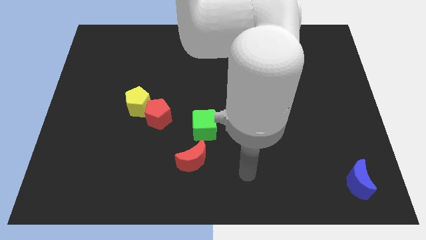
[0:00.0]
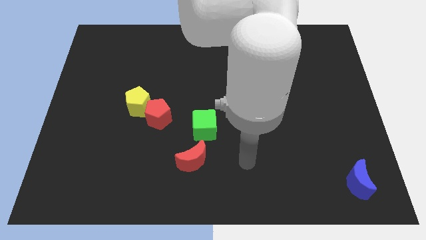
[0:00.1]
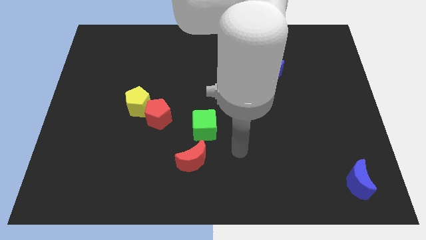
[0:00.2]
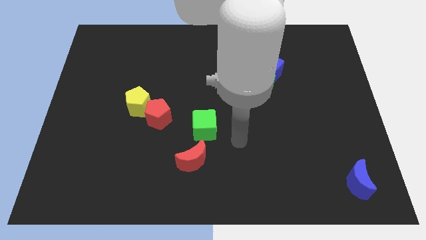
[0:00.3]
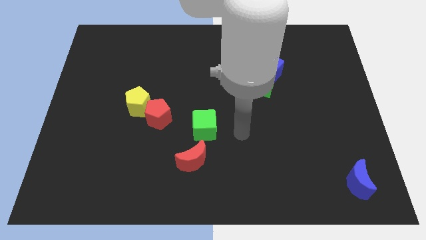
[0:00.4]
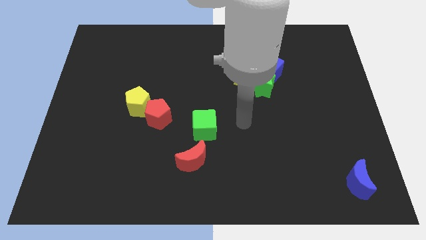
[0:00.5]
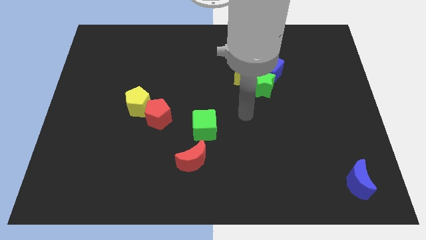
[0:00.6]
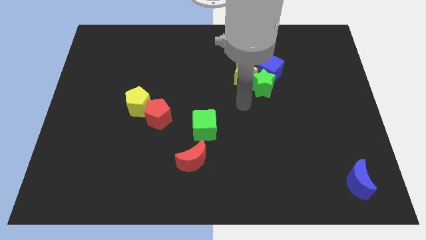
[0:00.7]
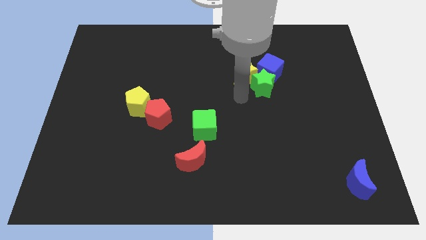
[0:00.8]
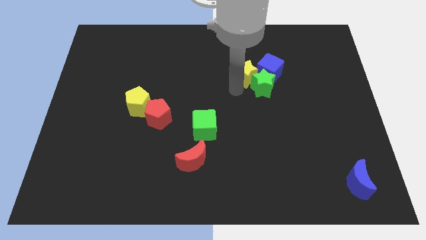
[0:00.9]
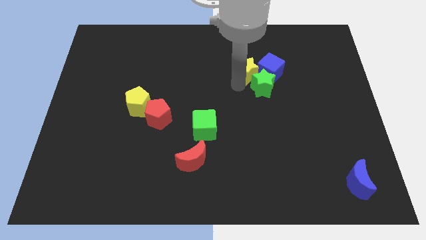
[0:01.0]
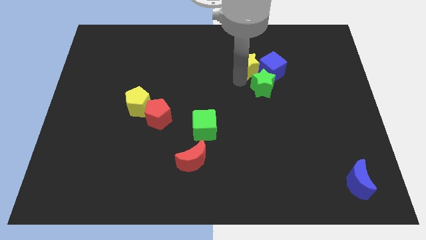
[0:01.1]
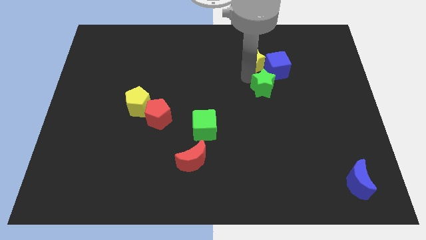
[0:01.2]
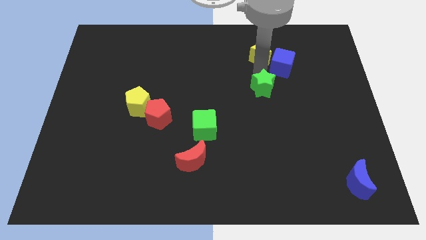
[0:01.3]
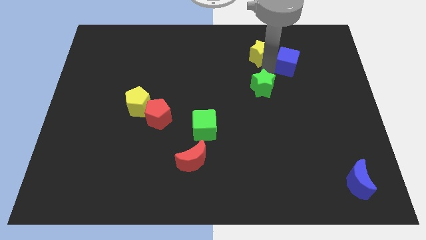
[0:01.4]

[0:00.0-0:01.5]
move the green star away from the yellow star and blue cube

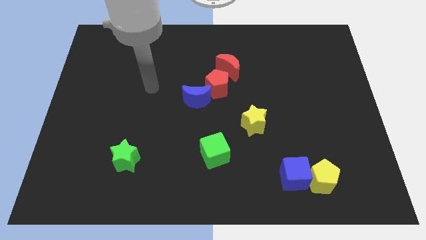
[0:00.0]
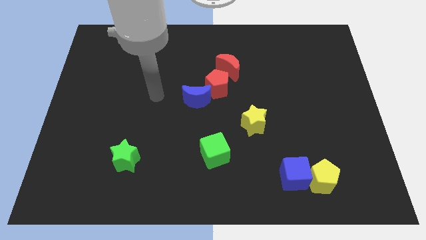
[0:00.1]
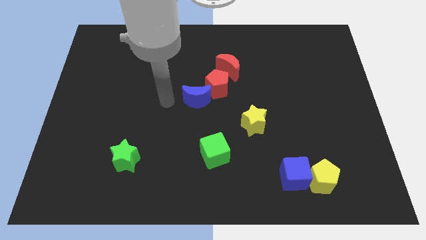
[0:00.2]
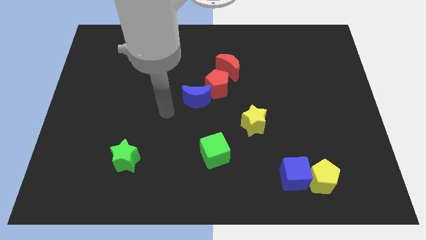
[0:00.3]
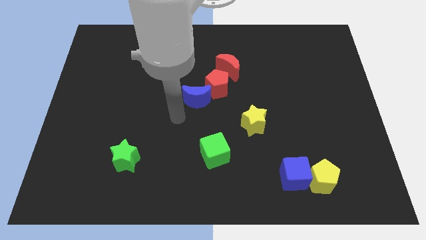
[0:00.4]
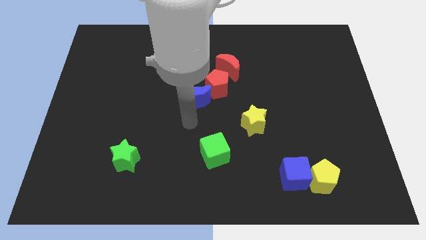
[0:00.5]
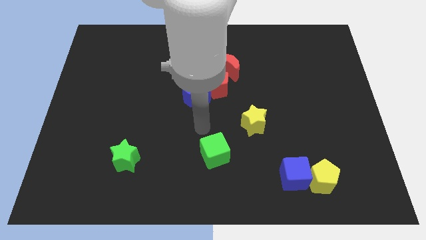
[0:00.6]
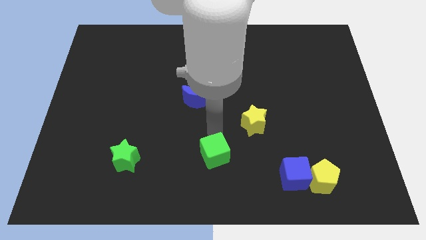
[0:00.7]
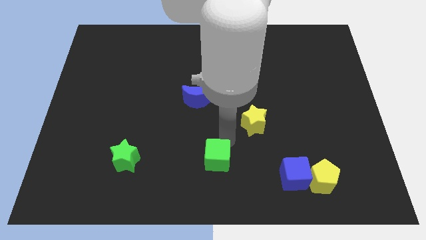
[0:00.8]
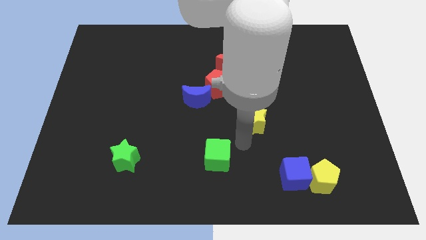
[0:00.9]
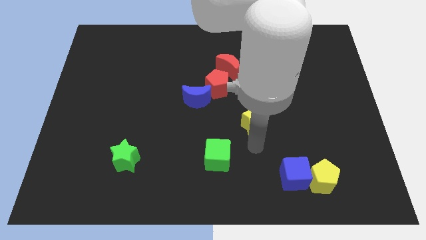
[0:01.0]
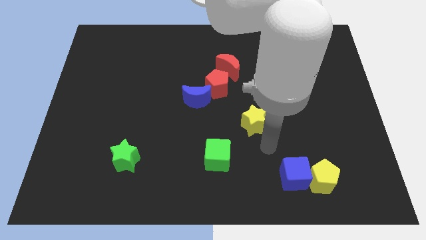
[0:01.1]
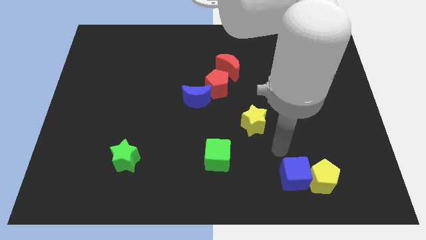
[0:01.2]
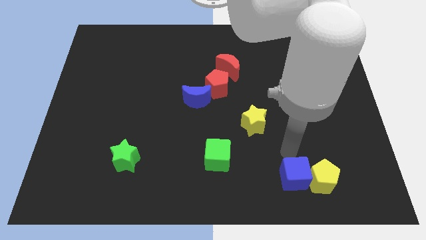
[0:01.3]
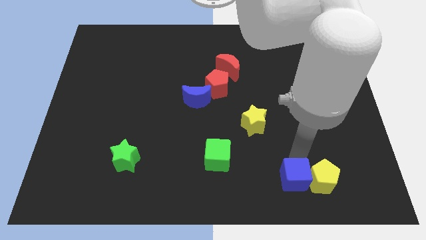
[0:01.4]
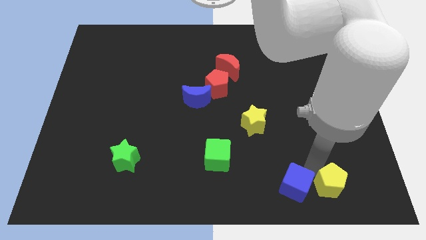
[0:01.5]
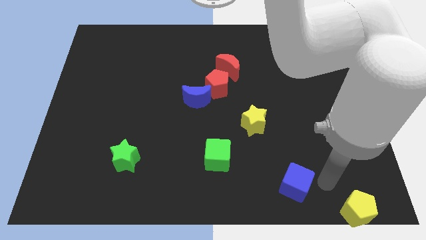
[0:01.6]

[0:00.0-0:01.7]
move the blue cube away from the yellow pentagon

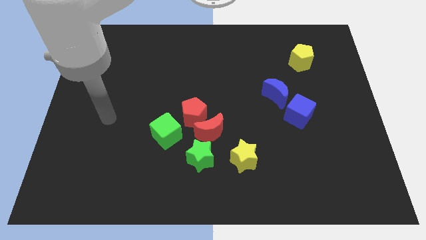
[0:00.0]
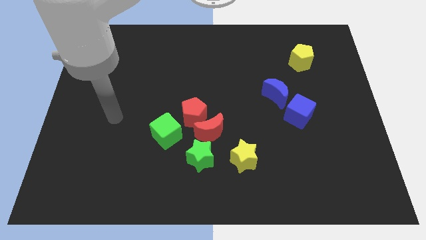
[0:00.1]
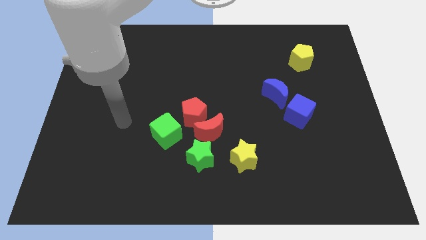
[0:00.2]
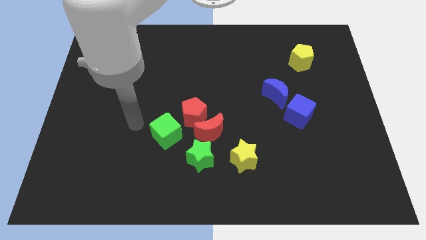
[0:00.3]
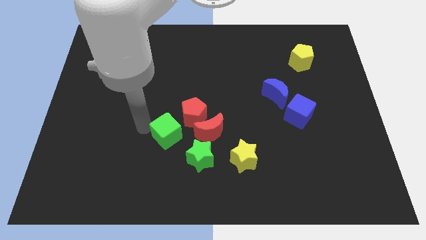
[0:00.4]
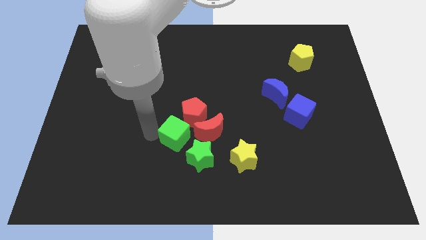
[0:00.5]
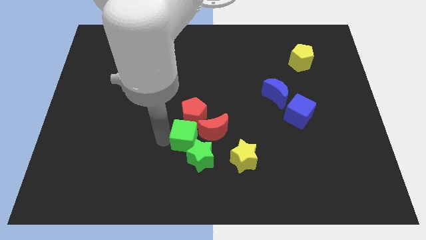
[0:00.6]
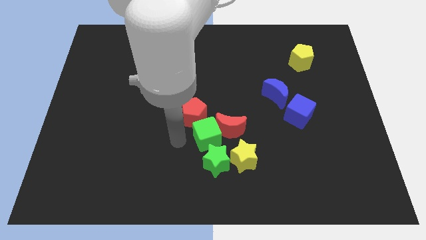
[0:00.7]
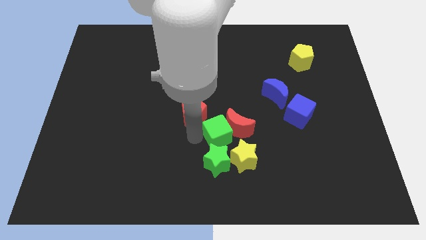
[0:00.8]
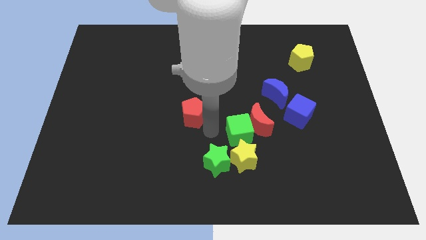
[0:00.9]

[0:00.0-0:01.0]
pull the red pentagon apart from the red moon and green cube

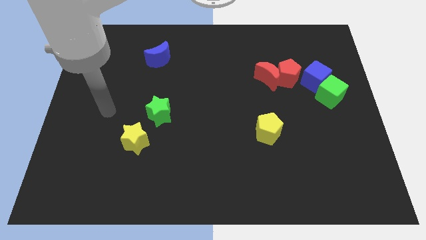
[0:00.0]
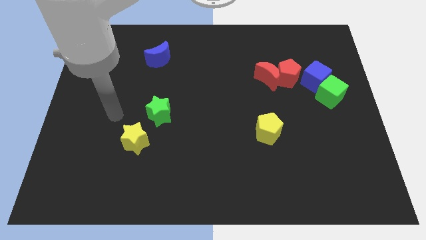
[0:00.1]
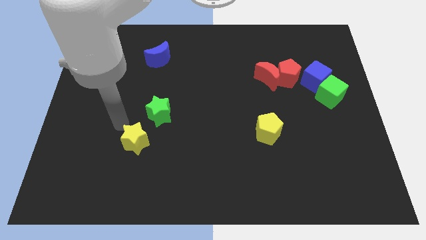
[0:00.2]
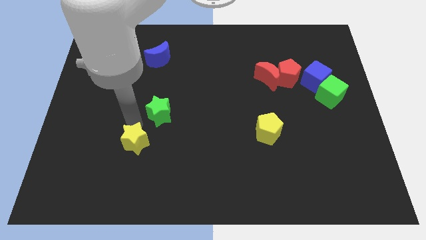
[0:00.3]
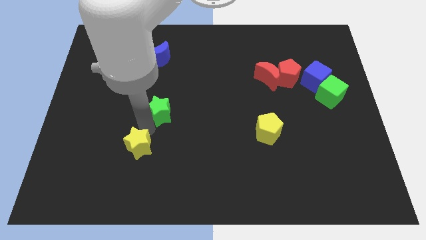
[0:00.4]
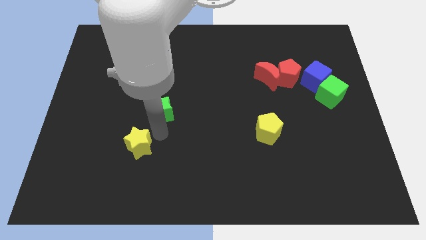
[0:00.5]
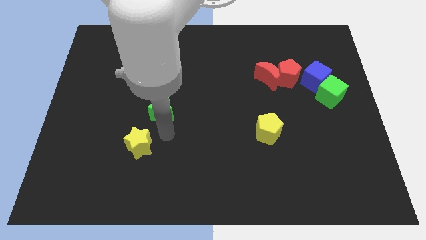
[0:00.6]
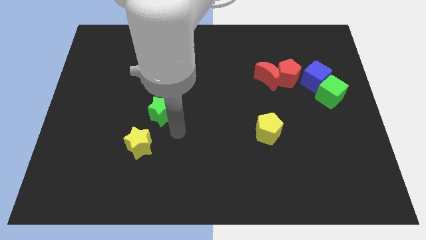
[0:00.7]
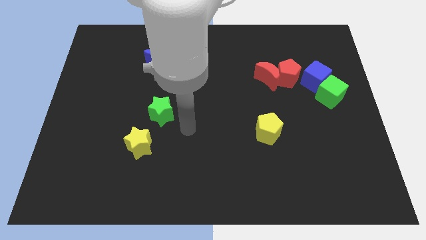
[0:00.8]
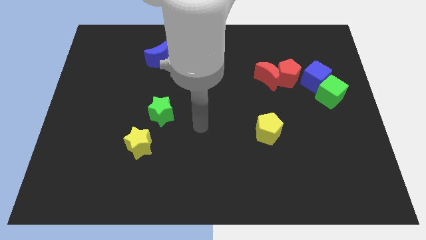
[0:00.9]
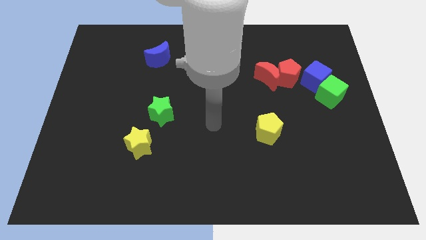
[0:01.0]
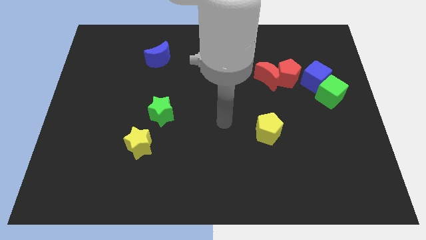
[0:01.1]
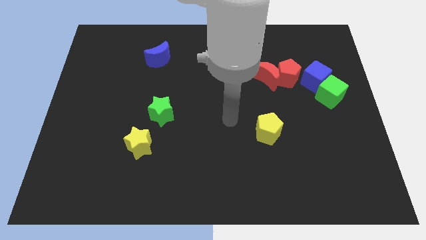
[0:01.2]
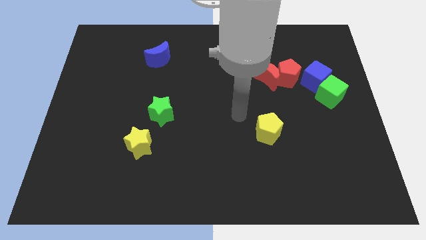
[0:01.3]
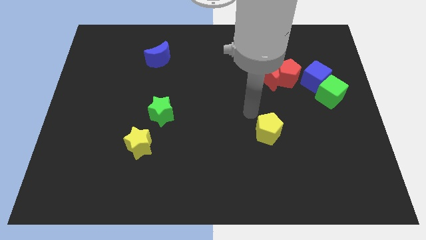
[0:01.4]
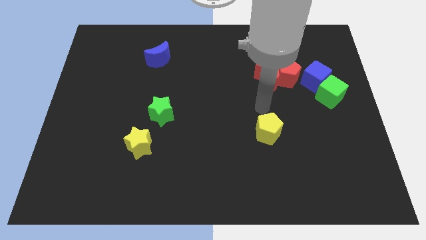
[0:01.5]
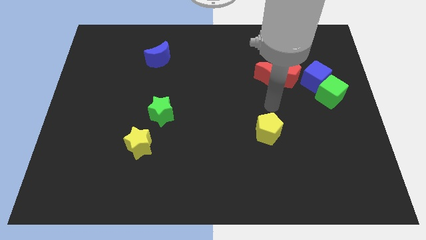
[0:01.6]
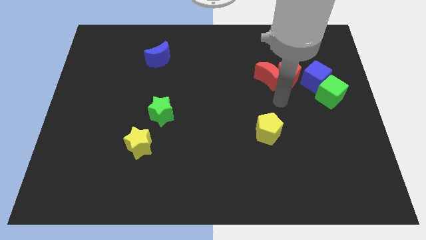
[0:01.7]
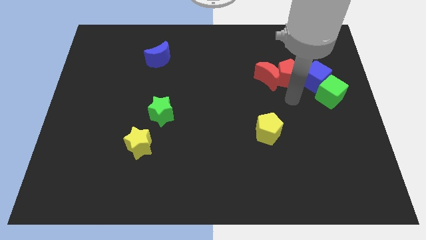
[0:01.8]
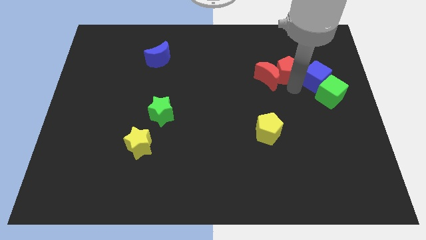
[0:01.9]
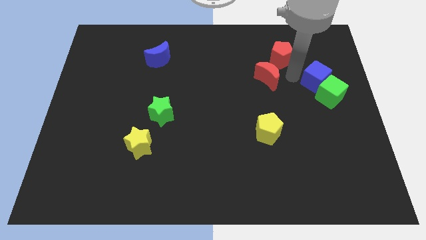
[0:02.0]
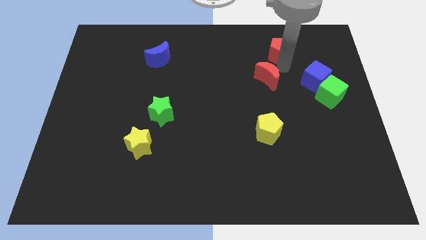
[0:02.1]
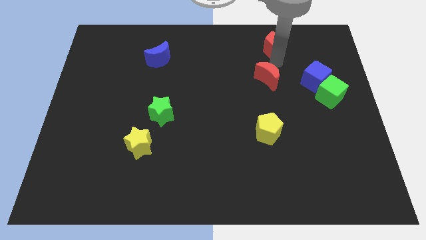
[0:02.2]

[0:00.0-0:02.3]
pull the red moon apart from the red pentagon

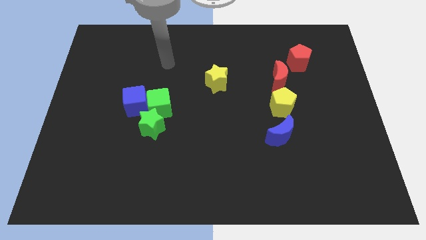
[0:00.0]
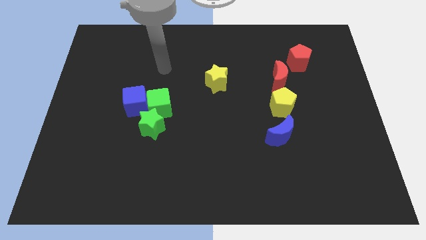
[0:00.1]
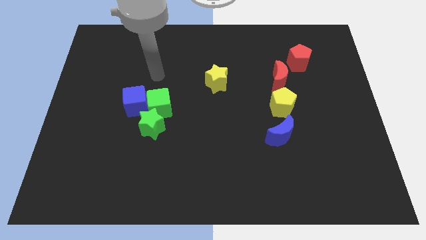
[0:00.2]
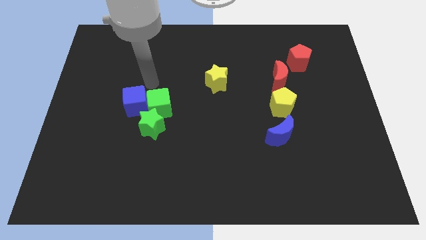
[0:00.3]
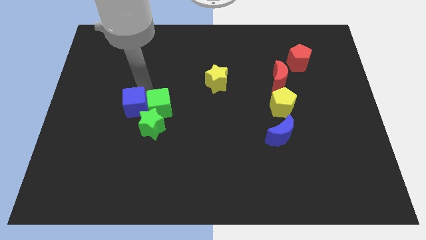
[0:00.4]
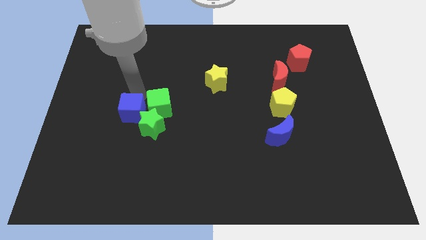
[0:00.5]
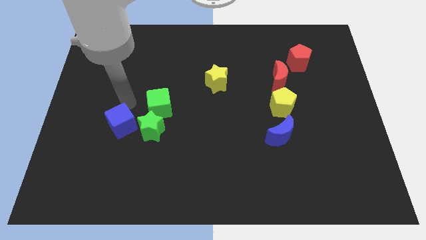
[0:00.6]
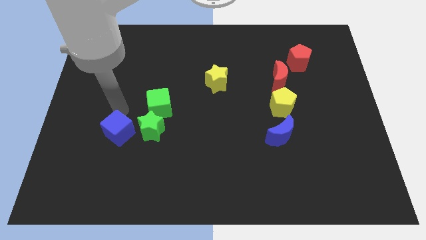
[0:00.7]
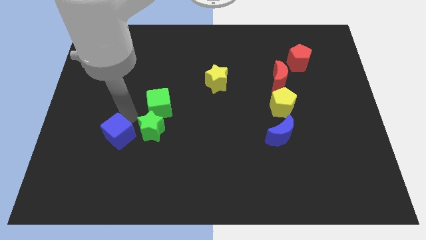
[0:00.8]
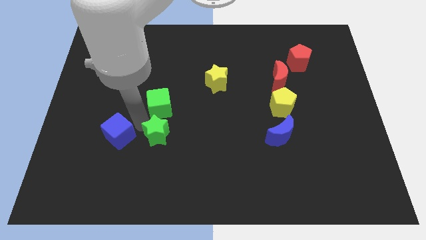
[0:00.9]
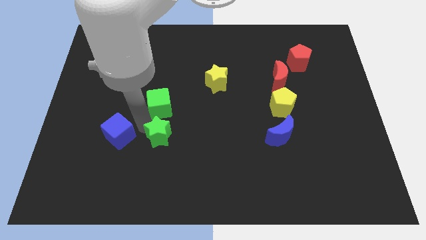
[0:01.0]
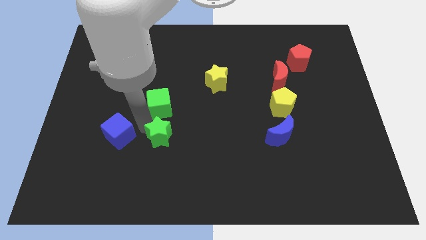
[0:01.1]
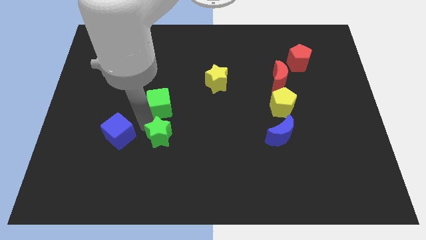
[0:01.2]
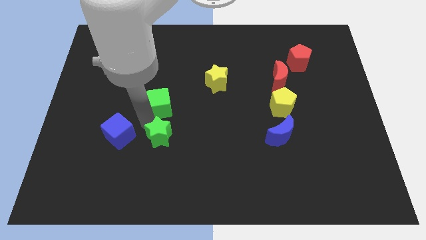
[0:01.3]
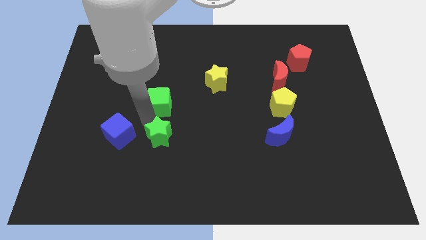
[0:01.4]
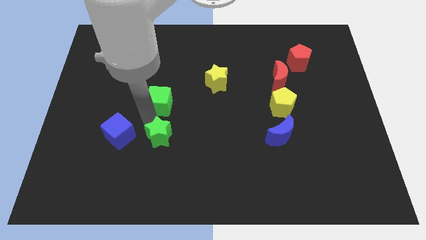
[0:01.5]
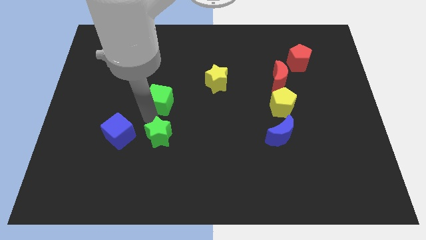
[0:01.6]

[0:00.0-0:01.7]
separate the green cube from the blue cube and green star

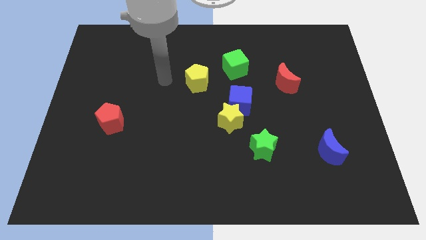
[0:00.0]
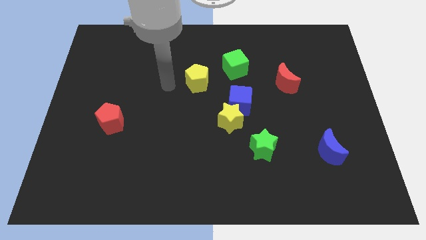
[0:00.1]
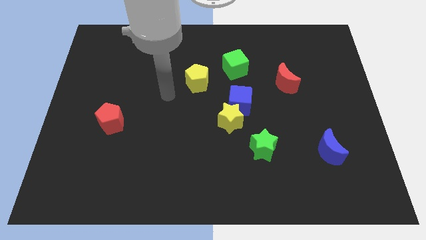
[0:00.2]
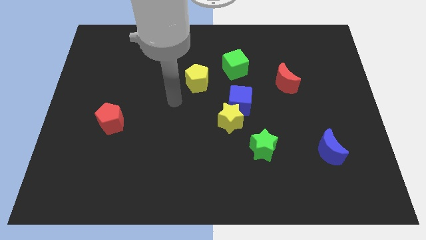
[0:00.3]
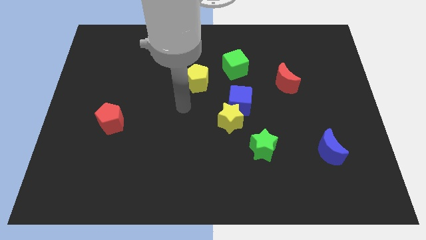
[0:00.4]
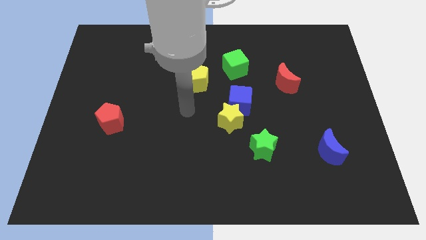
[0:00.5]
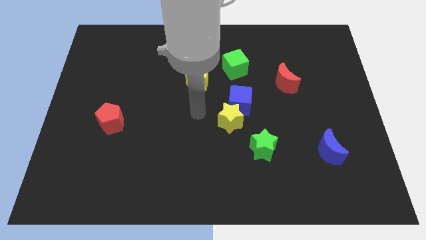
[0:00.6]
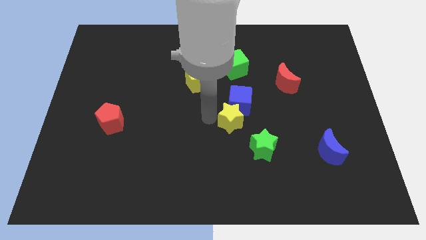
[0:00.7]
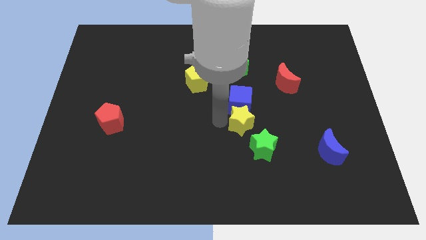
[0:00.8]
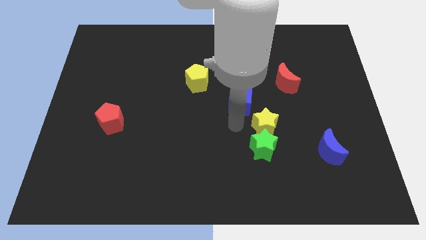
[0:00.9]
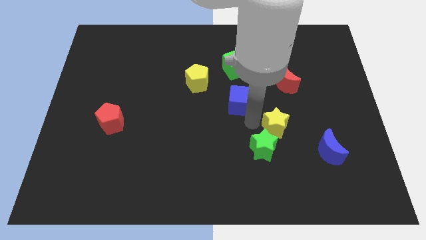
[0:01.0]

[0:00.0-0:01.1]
separate the blue cube from the yellow star
